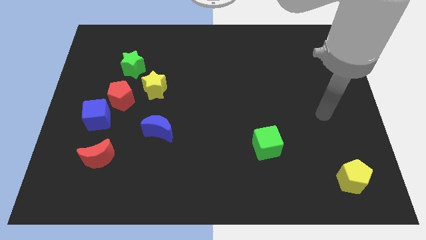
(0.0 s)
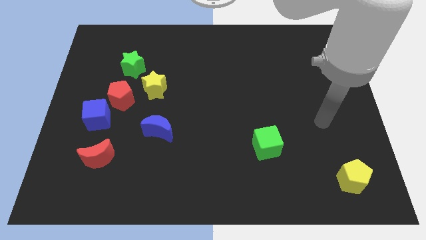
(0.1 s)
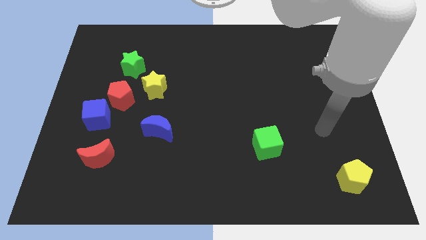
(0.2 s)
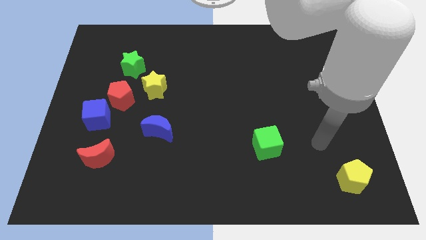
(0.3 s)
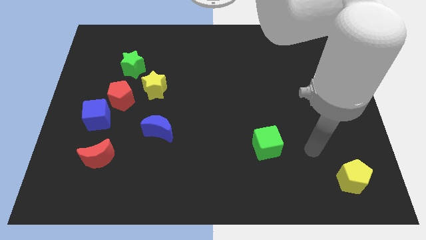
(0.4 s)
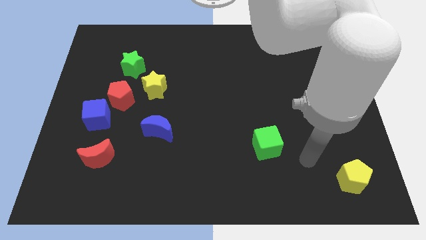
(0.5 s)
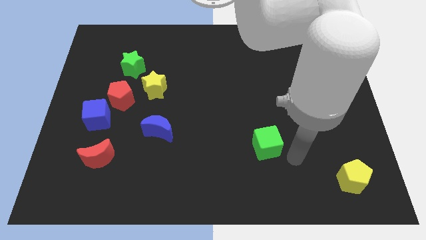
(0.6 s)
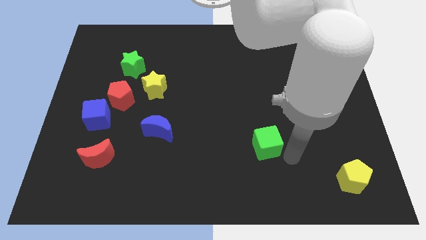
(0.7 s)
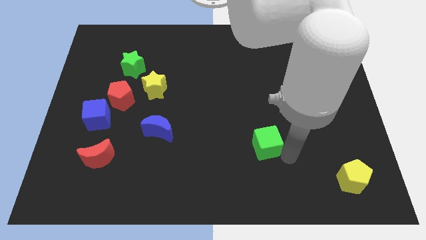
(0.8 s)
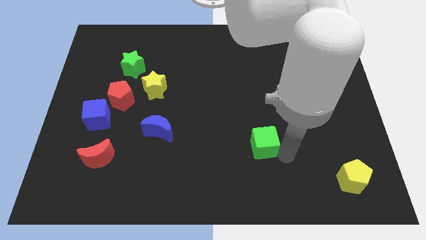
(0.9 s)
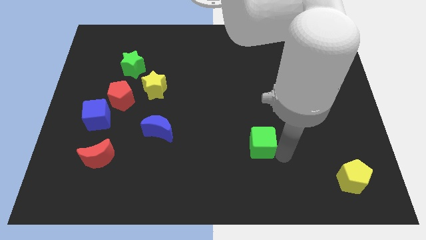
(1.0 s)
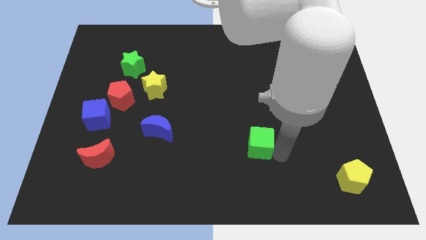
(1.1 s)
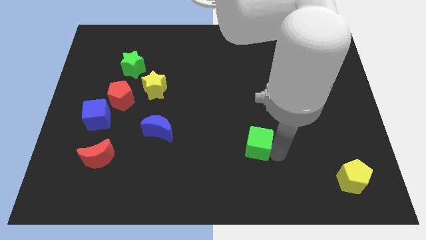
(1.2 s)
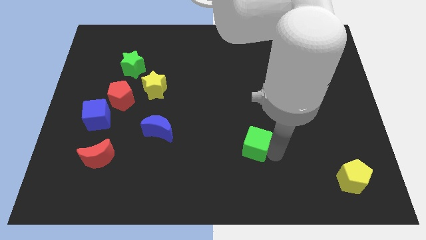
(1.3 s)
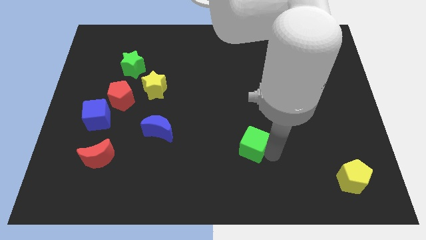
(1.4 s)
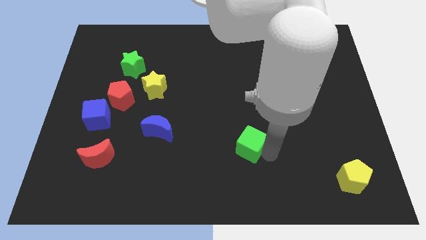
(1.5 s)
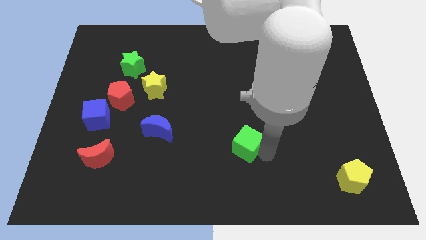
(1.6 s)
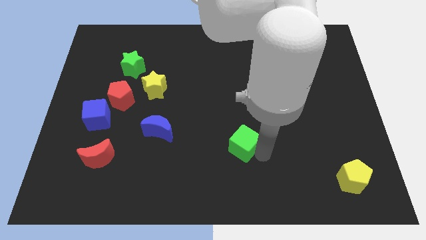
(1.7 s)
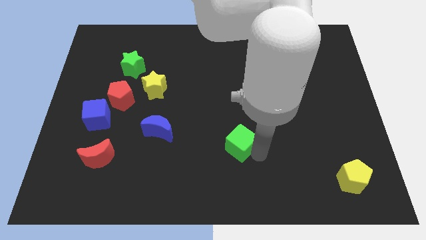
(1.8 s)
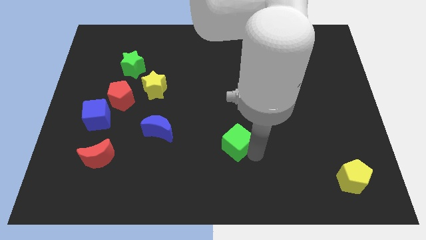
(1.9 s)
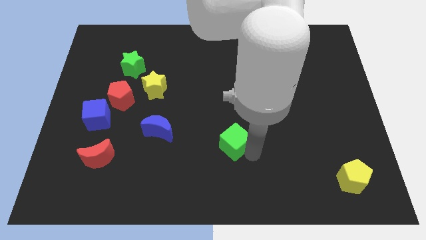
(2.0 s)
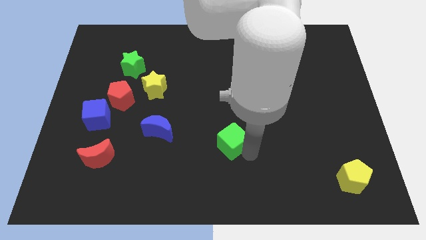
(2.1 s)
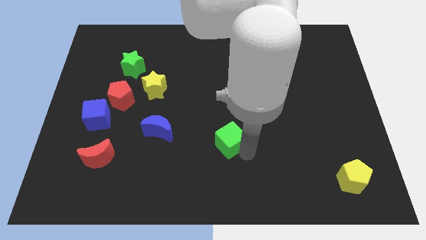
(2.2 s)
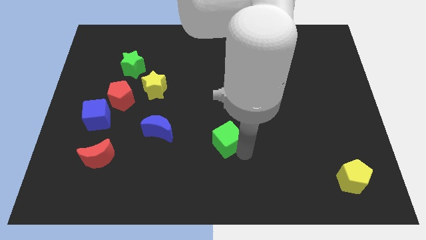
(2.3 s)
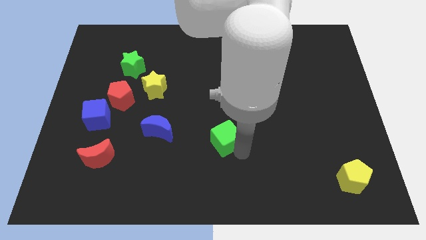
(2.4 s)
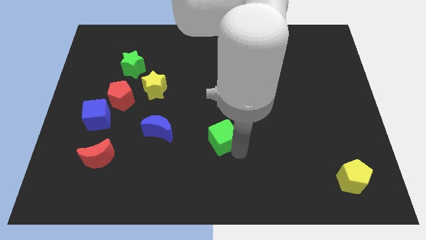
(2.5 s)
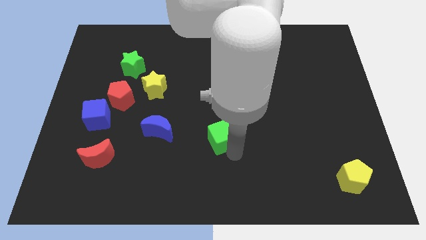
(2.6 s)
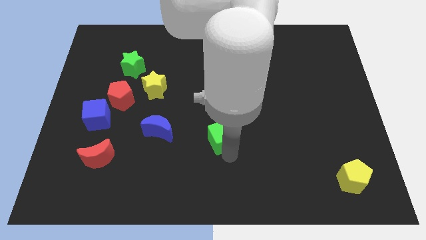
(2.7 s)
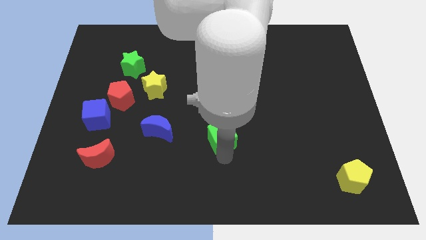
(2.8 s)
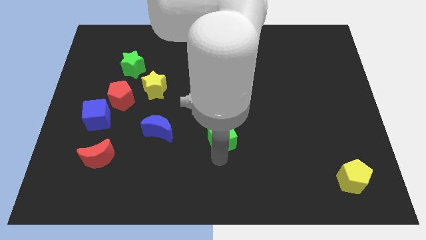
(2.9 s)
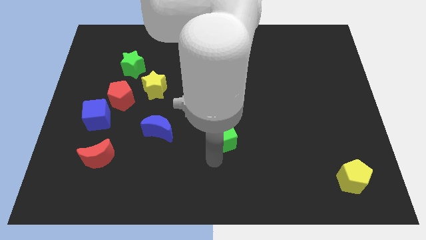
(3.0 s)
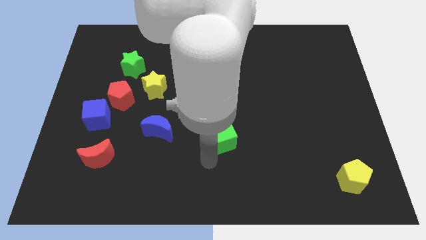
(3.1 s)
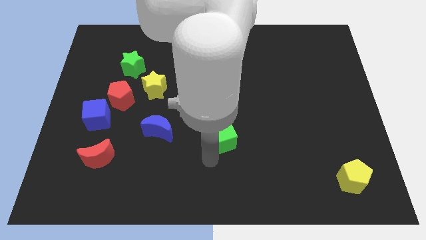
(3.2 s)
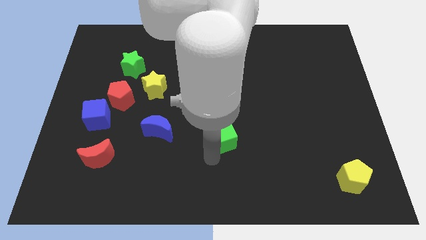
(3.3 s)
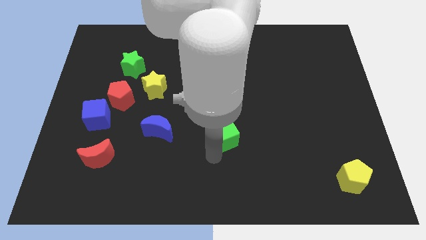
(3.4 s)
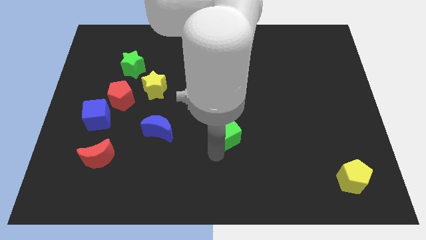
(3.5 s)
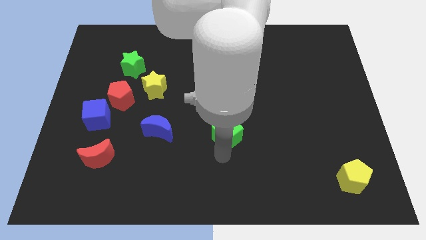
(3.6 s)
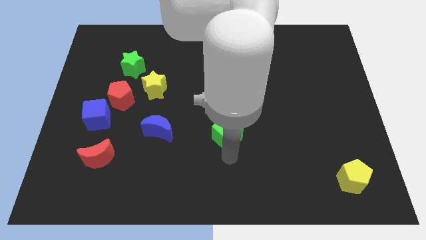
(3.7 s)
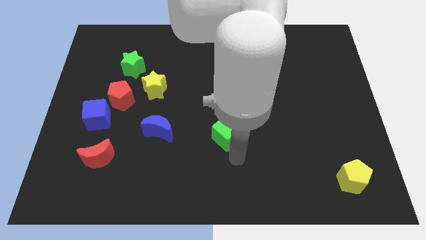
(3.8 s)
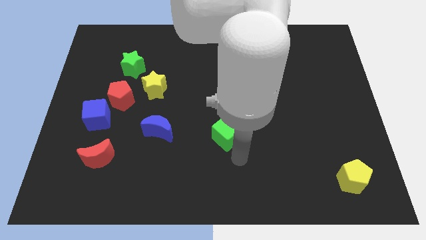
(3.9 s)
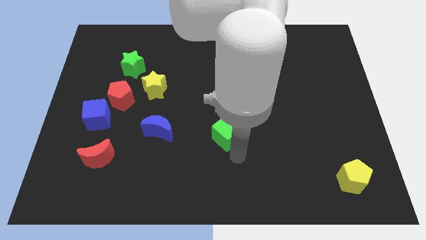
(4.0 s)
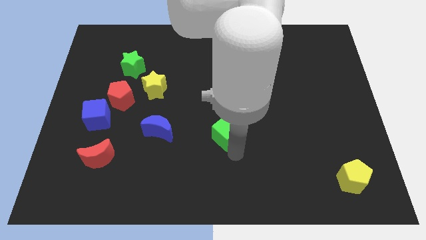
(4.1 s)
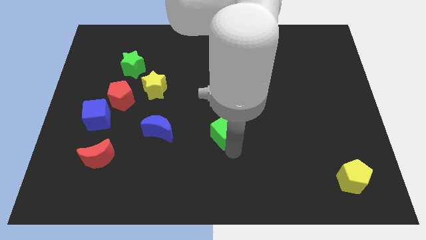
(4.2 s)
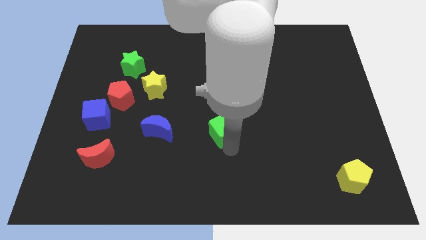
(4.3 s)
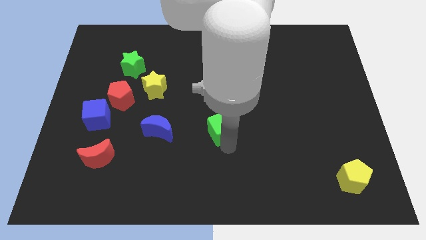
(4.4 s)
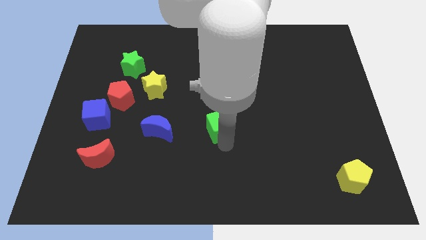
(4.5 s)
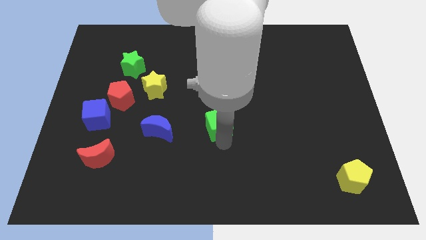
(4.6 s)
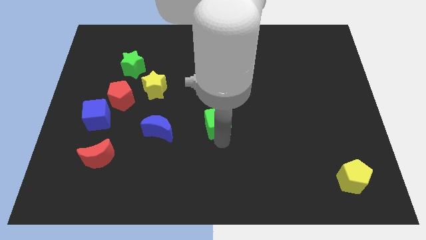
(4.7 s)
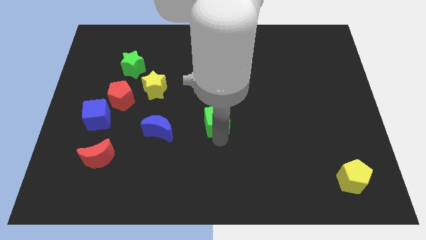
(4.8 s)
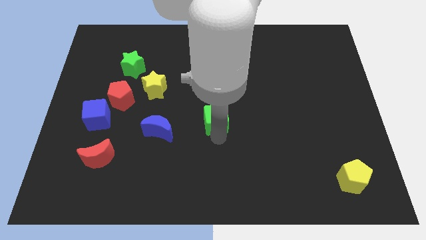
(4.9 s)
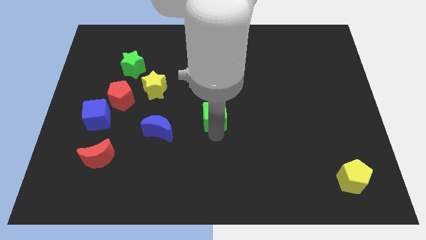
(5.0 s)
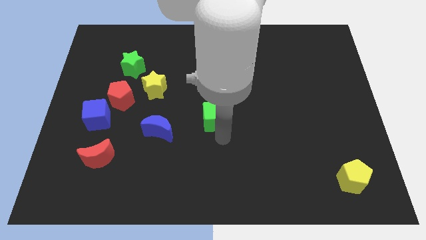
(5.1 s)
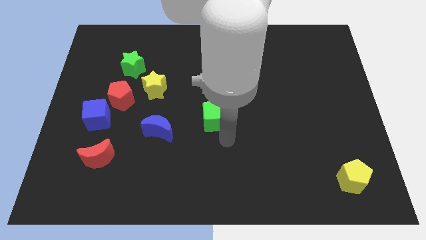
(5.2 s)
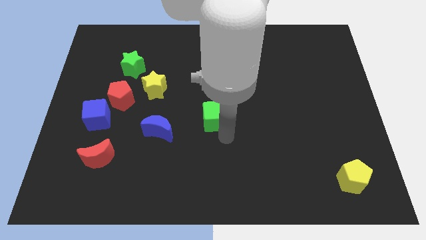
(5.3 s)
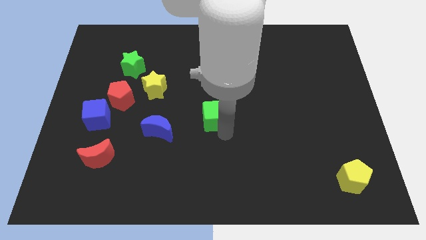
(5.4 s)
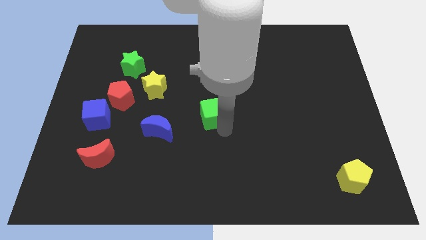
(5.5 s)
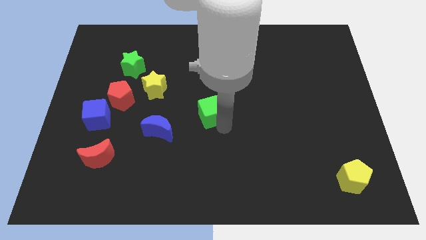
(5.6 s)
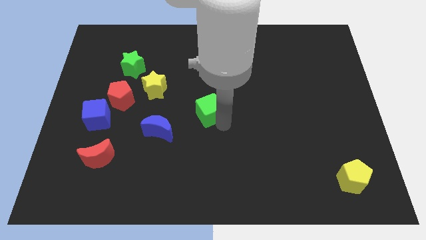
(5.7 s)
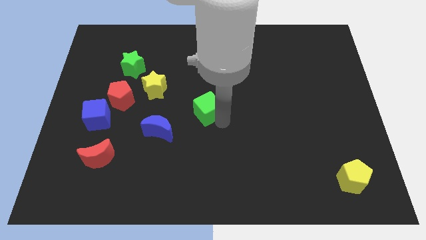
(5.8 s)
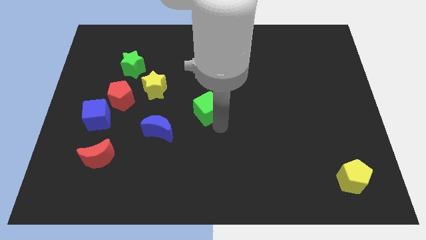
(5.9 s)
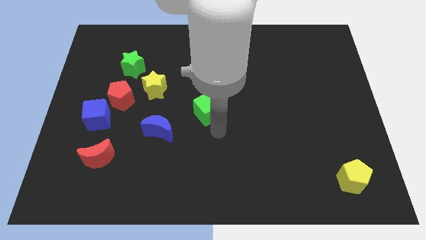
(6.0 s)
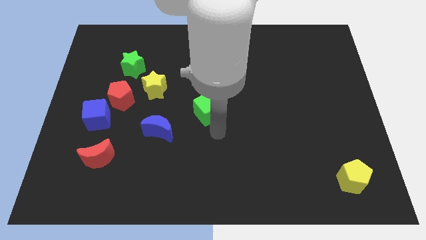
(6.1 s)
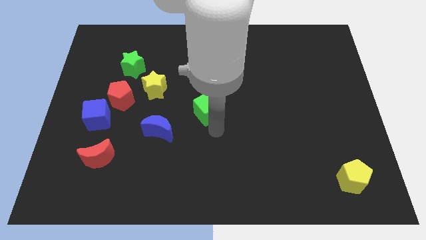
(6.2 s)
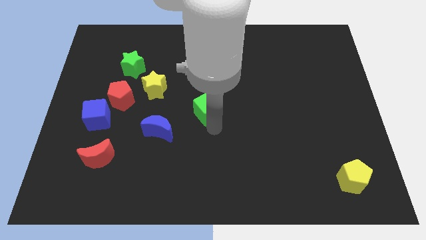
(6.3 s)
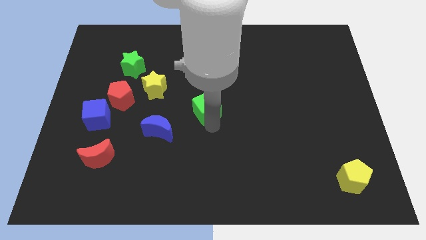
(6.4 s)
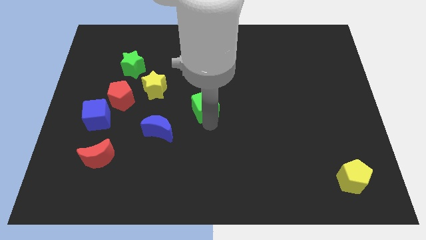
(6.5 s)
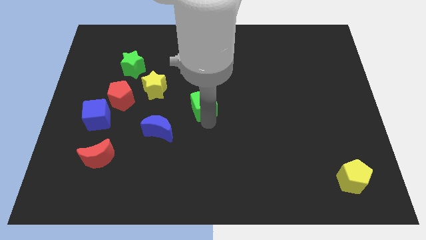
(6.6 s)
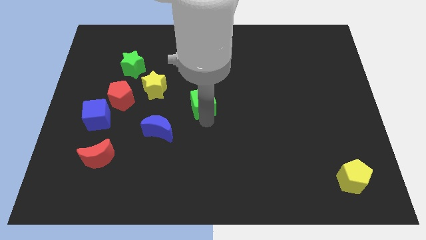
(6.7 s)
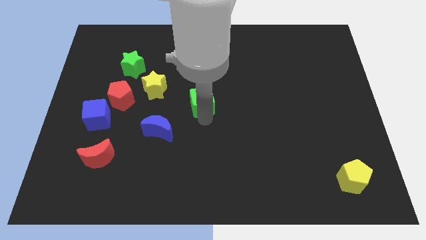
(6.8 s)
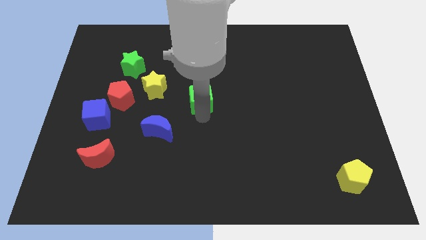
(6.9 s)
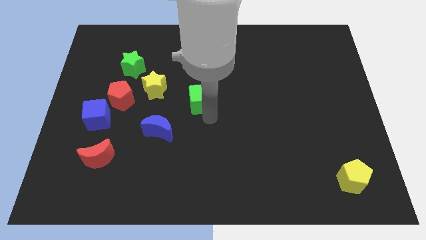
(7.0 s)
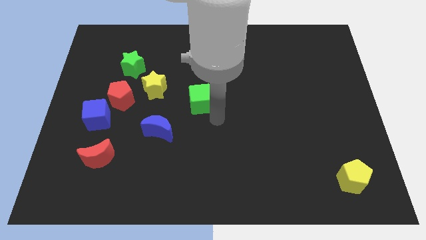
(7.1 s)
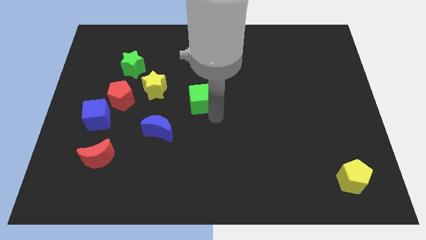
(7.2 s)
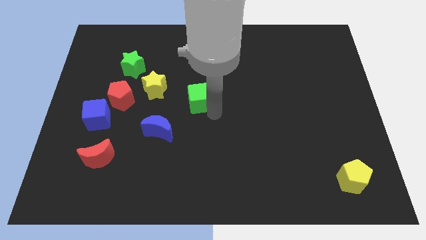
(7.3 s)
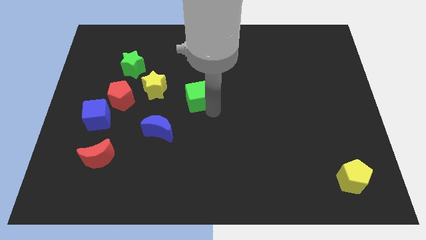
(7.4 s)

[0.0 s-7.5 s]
push the green cube upwards and to the left

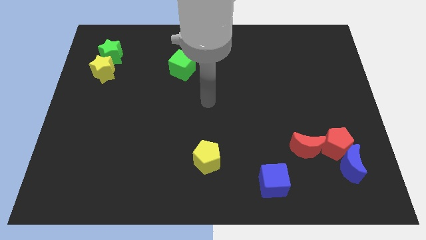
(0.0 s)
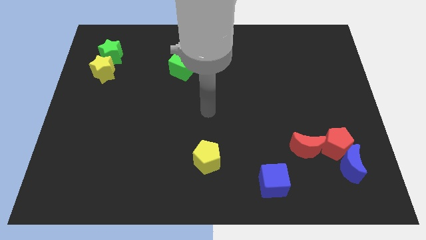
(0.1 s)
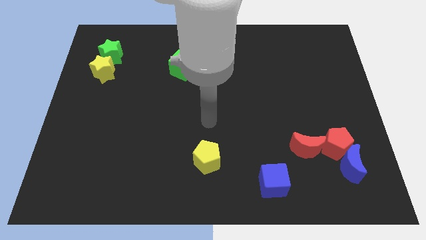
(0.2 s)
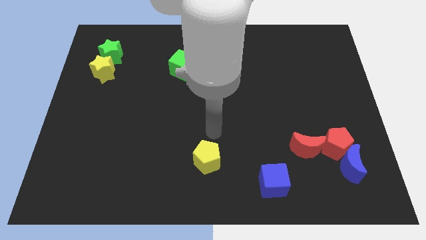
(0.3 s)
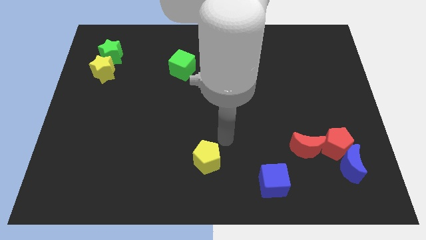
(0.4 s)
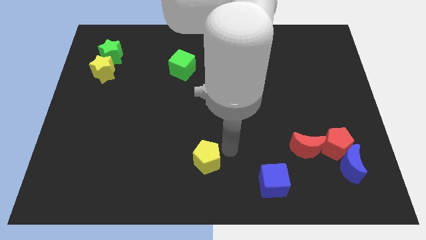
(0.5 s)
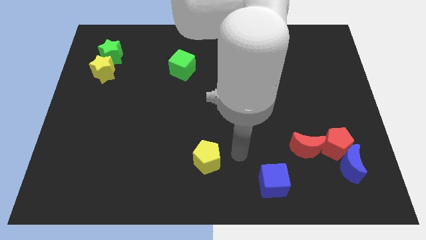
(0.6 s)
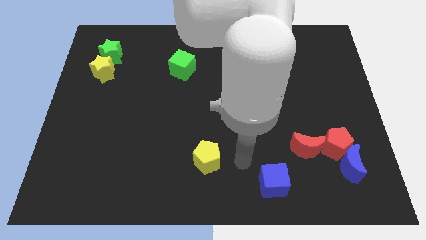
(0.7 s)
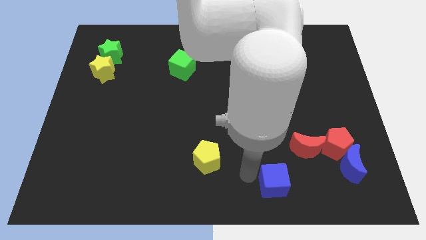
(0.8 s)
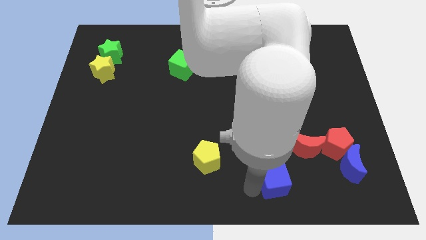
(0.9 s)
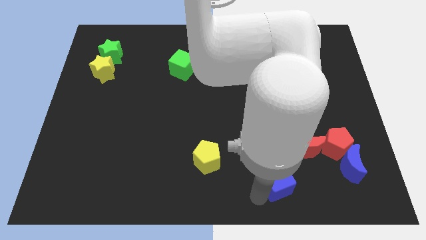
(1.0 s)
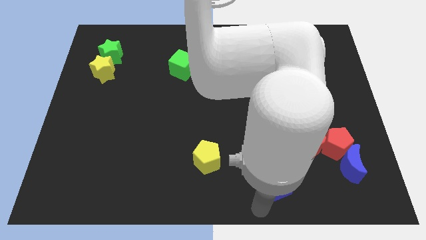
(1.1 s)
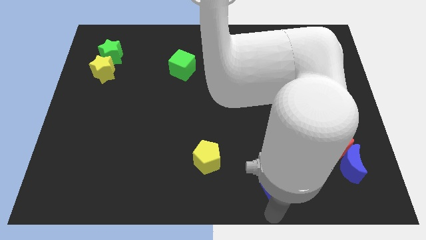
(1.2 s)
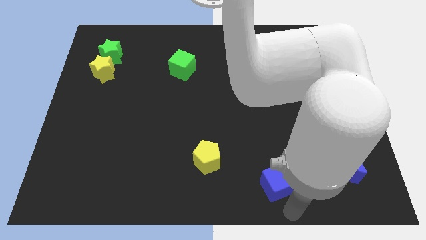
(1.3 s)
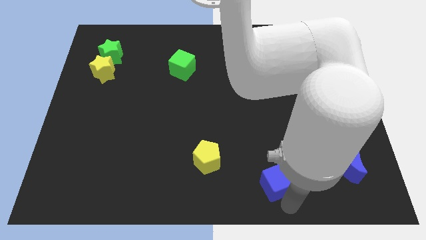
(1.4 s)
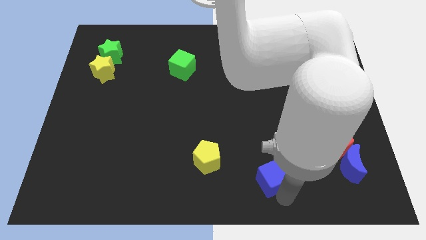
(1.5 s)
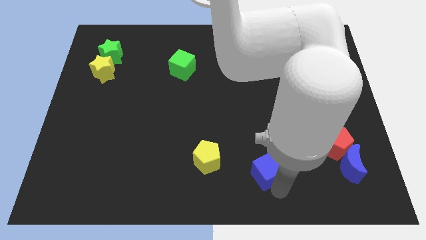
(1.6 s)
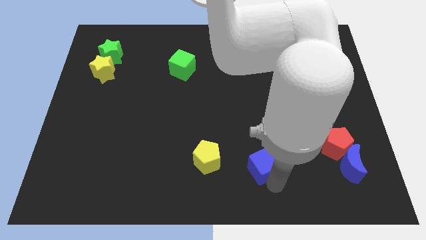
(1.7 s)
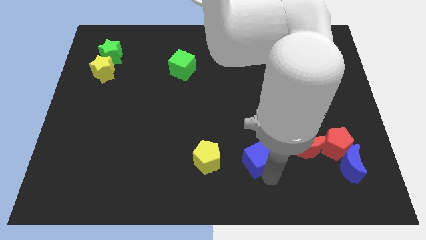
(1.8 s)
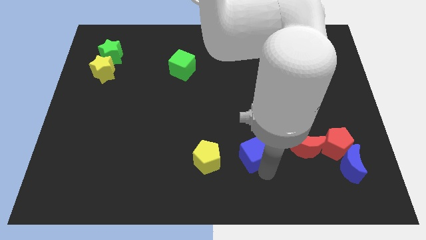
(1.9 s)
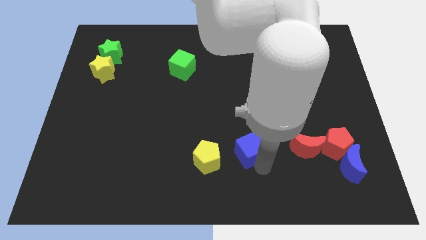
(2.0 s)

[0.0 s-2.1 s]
move the blue cube up and to the left slightly
